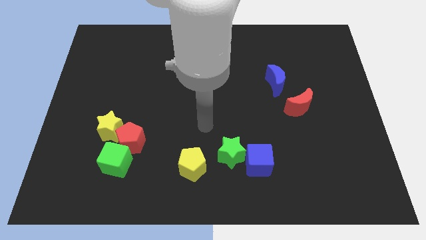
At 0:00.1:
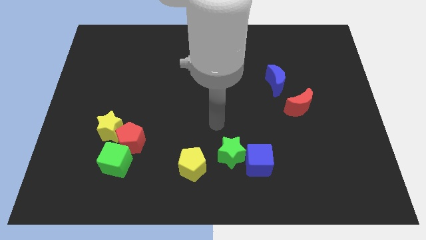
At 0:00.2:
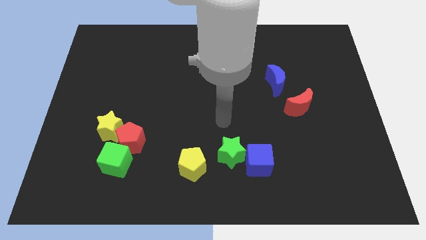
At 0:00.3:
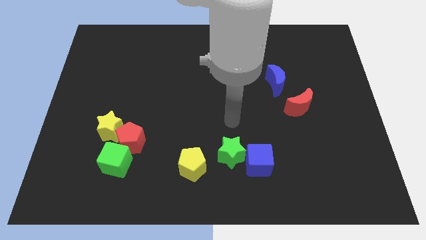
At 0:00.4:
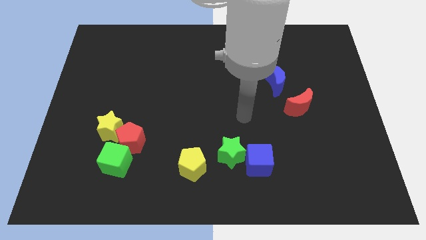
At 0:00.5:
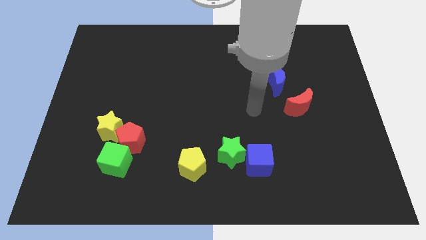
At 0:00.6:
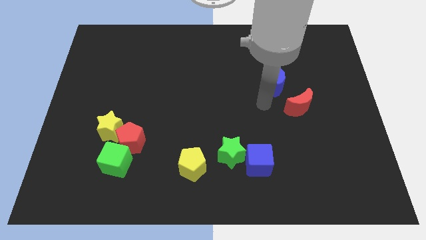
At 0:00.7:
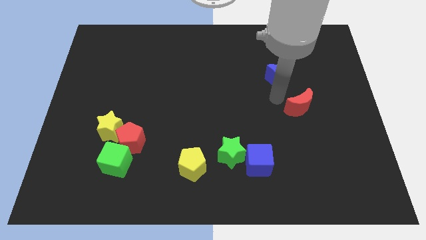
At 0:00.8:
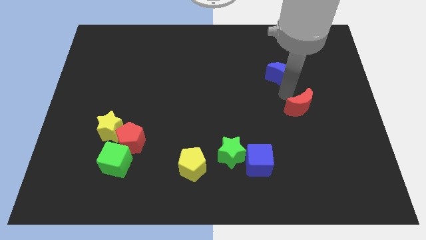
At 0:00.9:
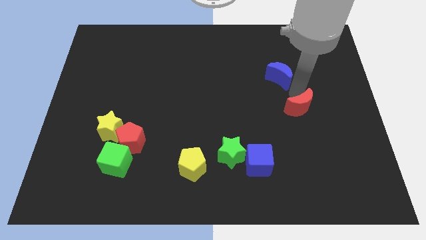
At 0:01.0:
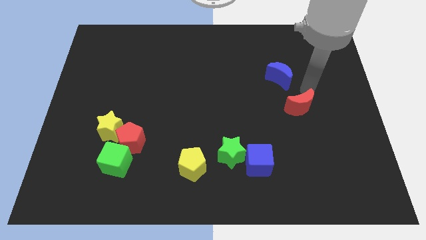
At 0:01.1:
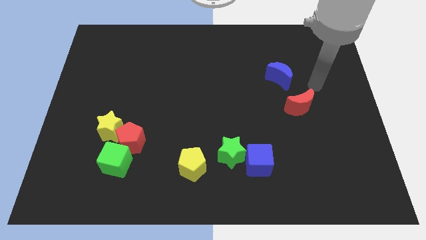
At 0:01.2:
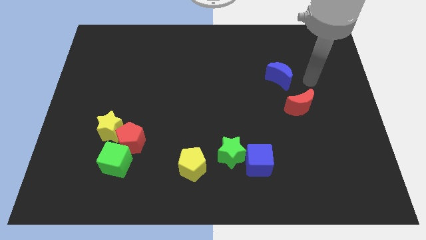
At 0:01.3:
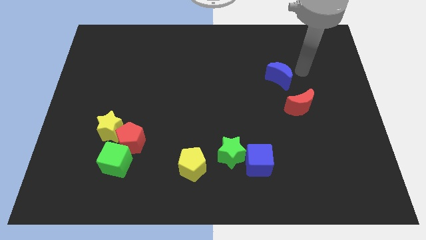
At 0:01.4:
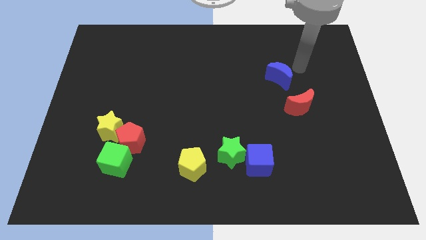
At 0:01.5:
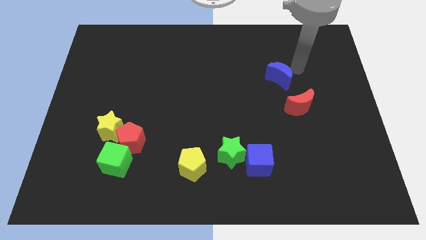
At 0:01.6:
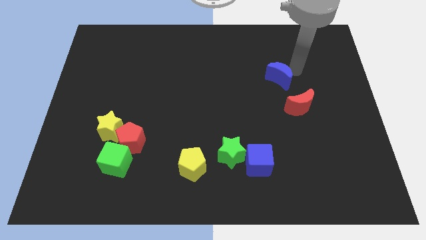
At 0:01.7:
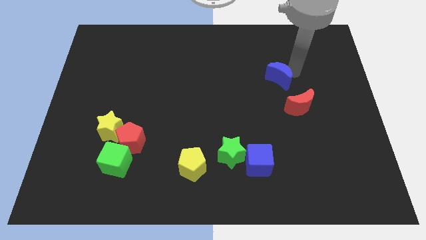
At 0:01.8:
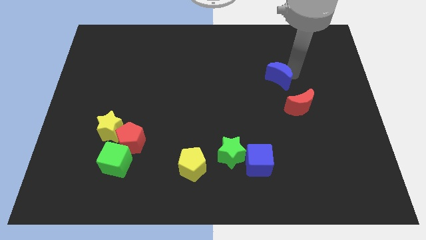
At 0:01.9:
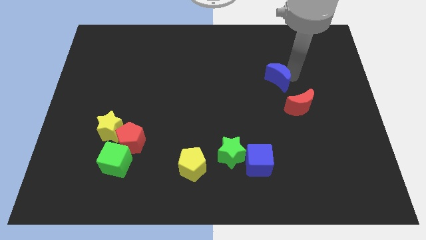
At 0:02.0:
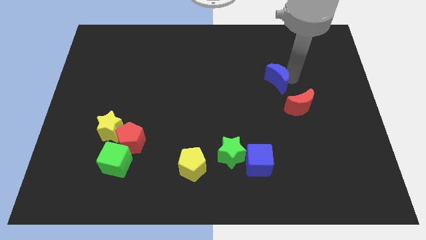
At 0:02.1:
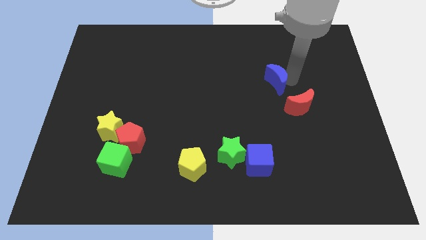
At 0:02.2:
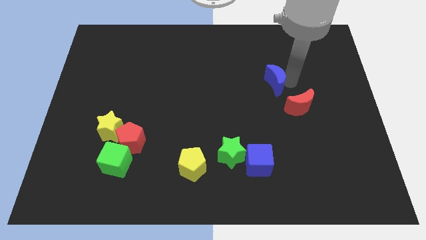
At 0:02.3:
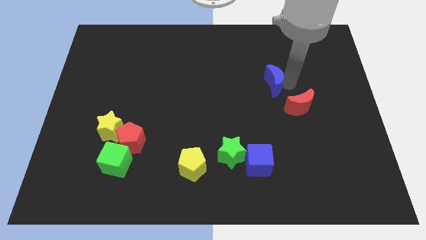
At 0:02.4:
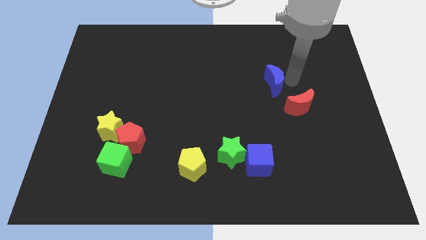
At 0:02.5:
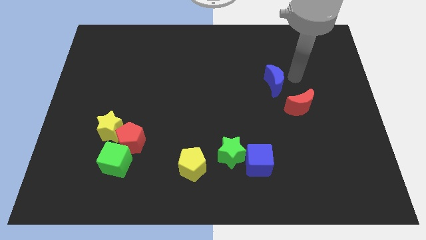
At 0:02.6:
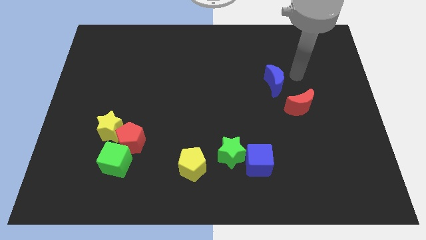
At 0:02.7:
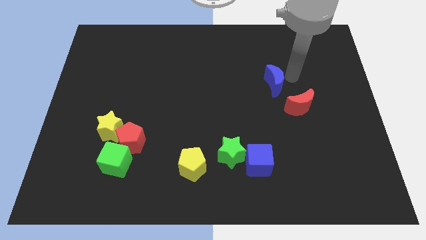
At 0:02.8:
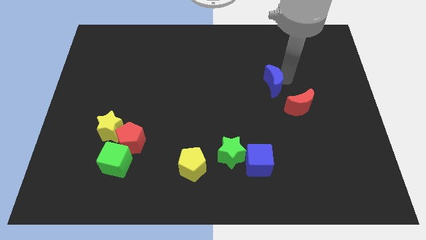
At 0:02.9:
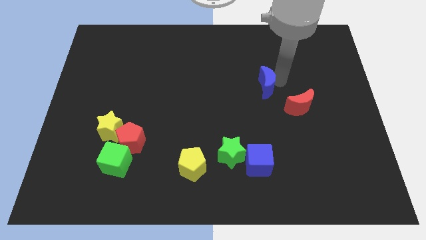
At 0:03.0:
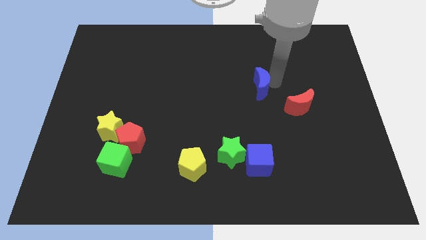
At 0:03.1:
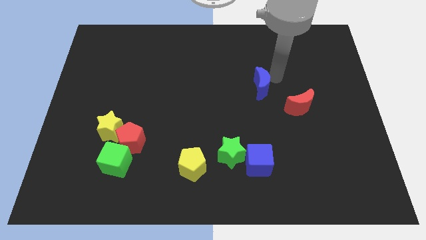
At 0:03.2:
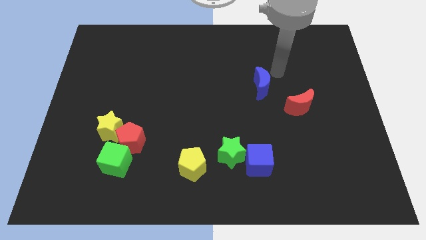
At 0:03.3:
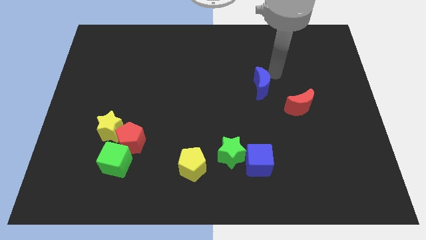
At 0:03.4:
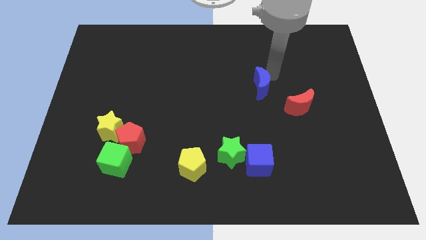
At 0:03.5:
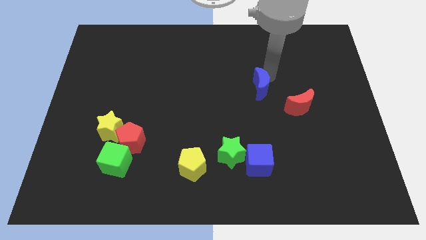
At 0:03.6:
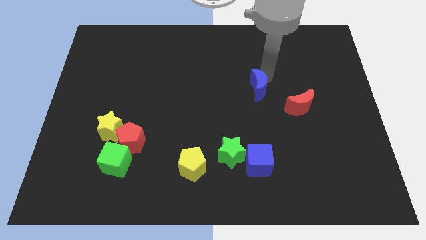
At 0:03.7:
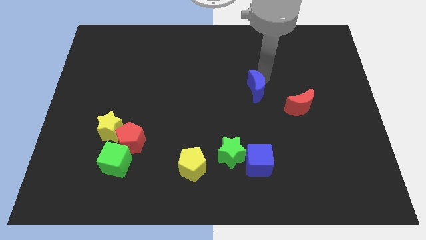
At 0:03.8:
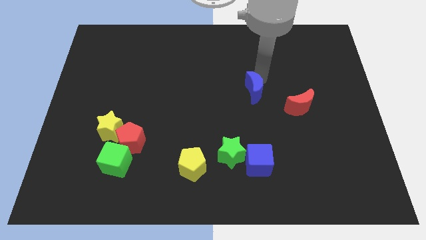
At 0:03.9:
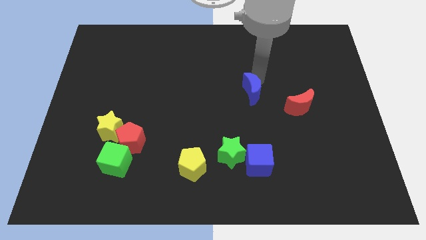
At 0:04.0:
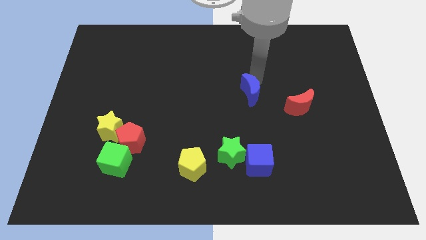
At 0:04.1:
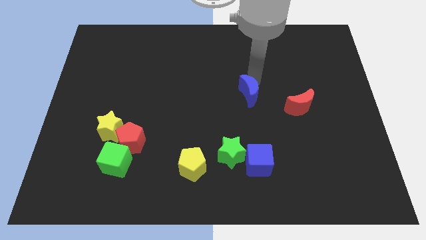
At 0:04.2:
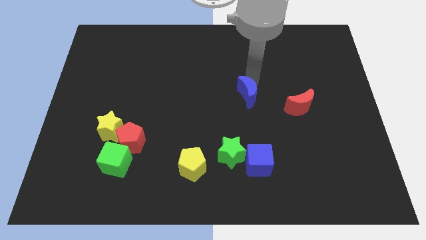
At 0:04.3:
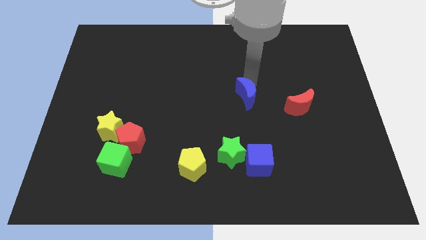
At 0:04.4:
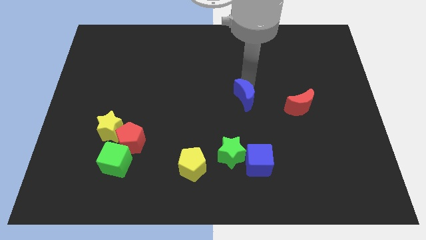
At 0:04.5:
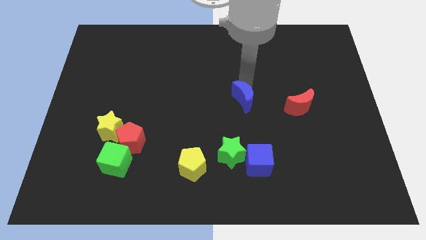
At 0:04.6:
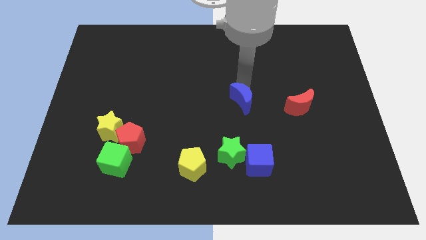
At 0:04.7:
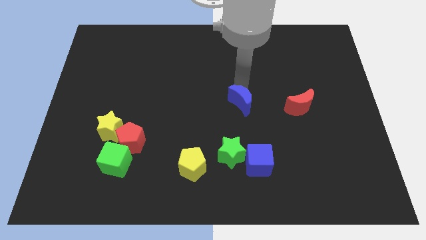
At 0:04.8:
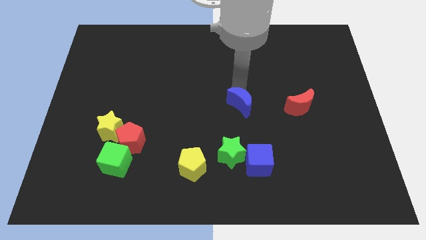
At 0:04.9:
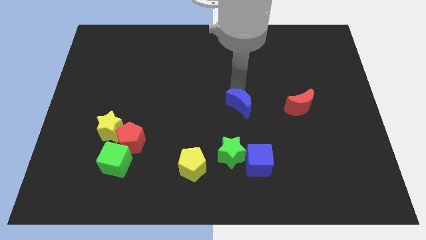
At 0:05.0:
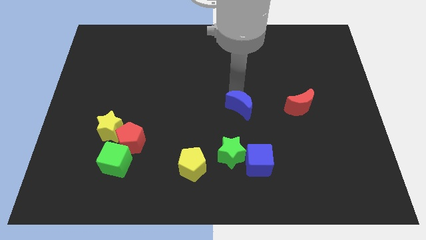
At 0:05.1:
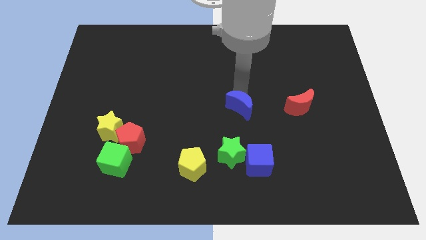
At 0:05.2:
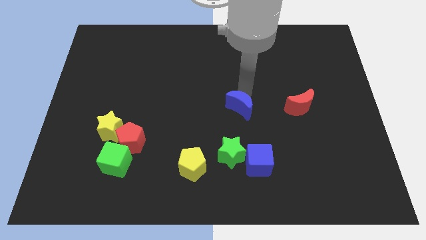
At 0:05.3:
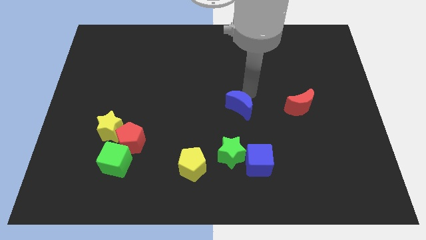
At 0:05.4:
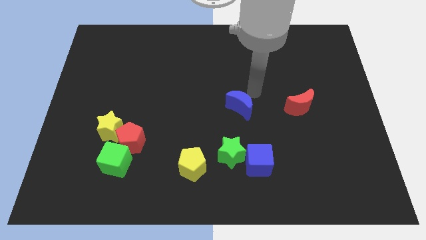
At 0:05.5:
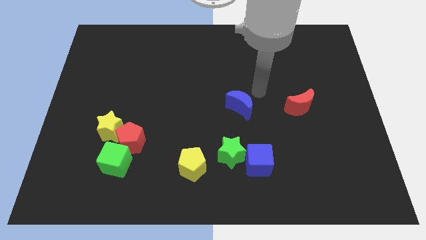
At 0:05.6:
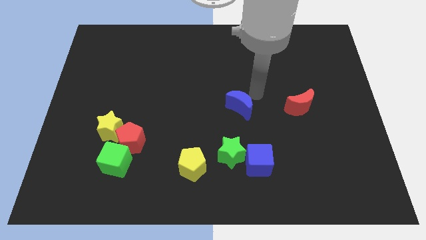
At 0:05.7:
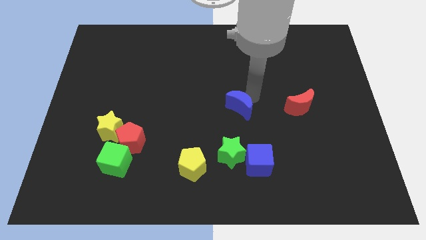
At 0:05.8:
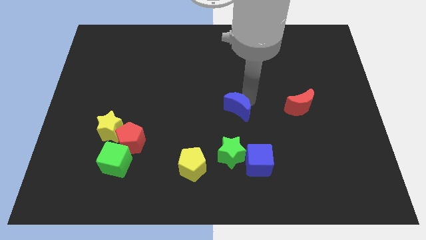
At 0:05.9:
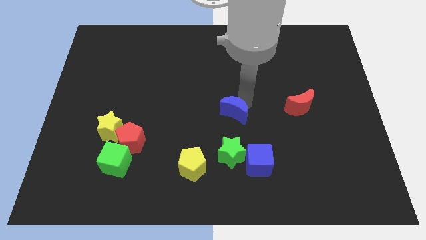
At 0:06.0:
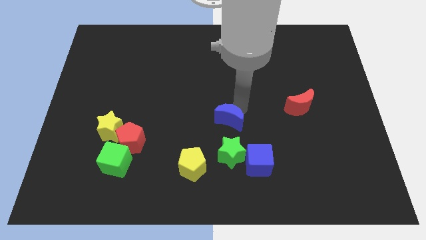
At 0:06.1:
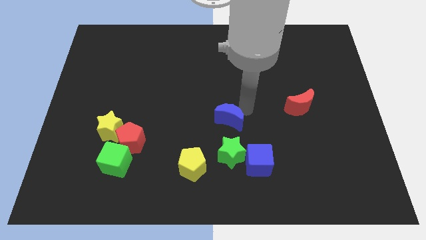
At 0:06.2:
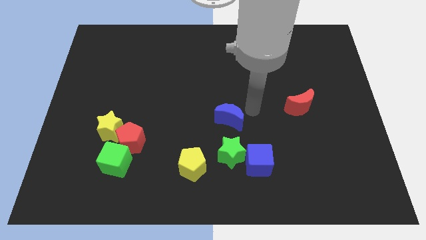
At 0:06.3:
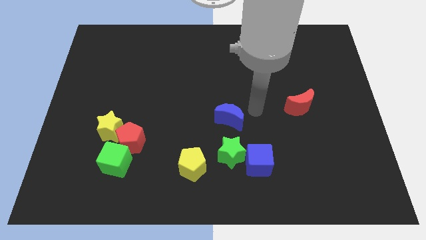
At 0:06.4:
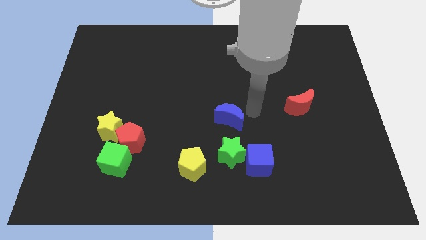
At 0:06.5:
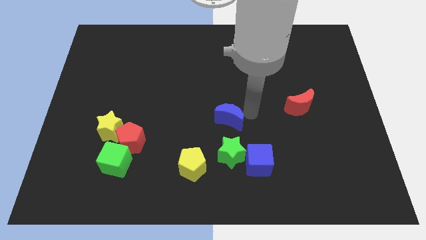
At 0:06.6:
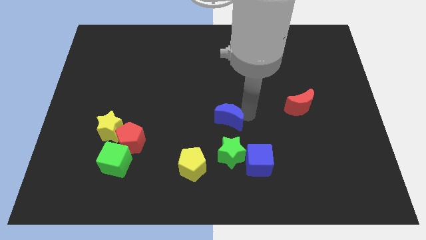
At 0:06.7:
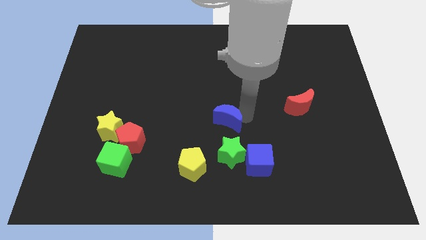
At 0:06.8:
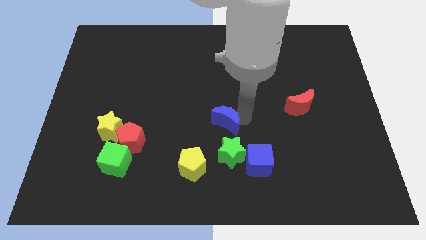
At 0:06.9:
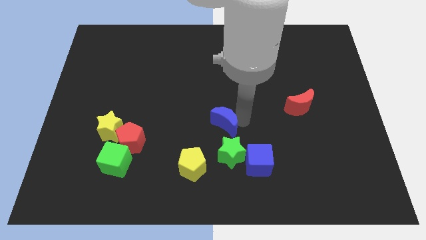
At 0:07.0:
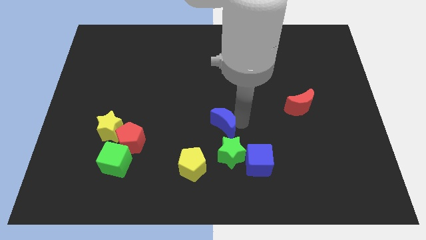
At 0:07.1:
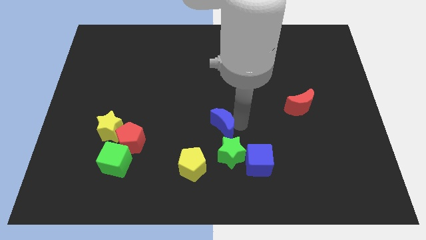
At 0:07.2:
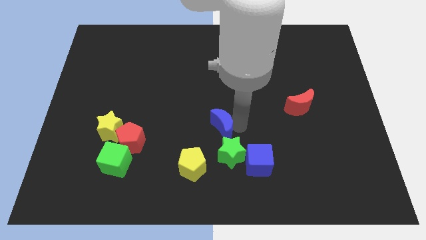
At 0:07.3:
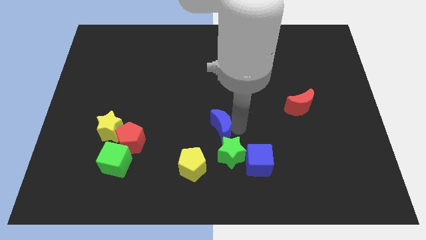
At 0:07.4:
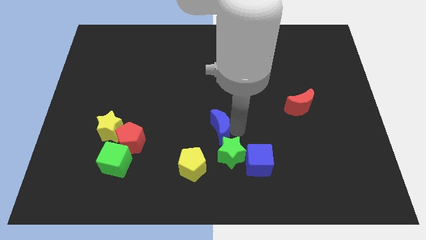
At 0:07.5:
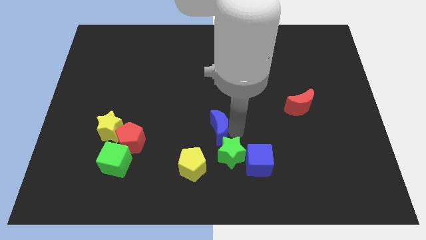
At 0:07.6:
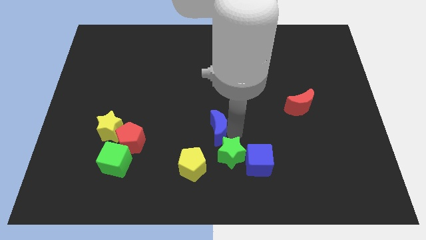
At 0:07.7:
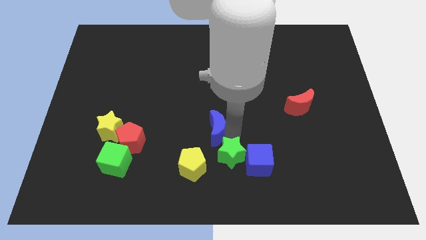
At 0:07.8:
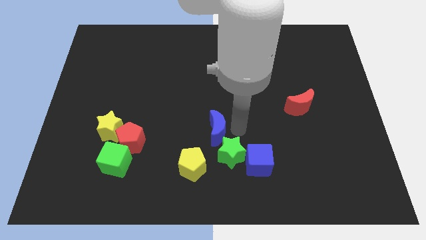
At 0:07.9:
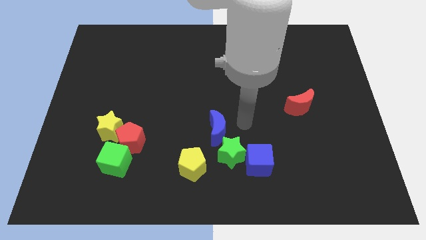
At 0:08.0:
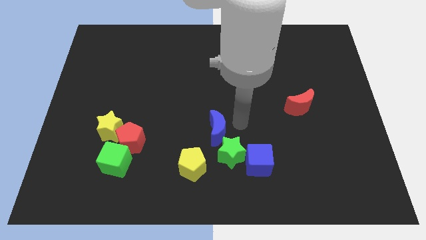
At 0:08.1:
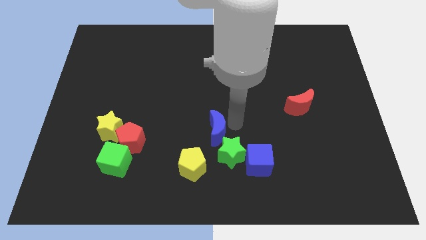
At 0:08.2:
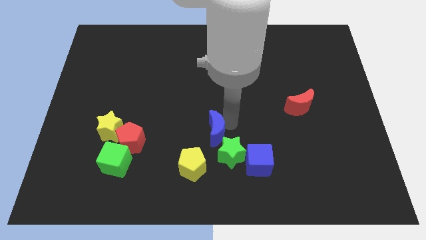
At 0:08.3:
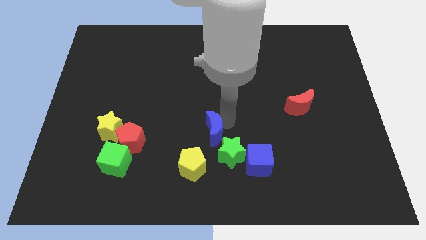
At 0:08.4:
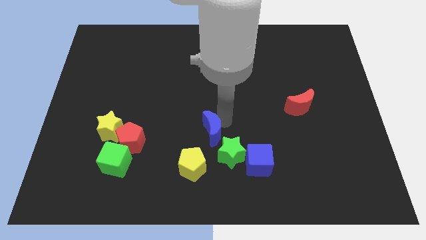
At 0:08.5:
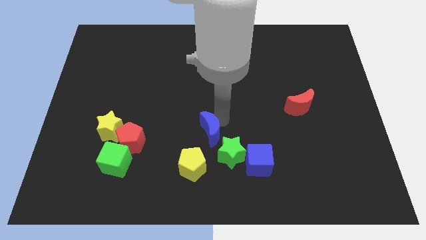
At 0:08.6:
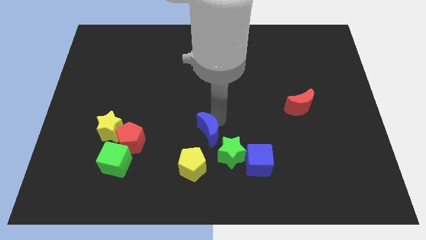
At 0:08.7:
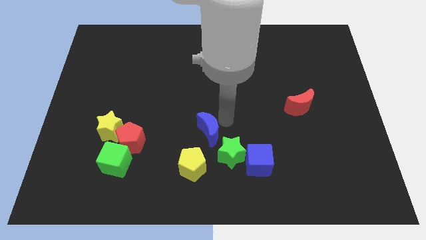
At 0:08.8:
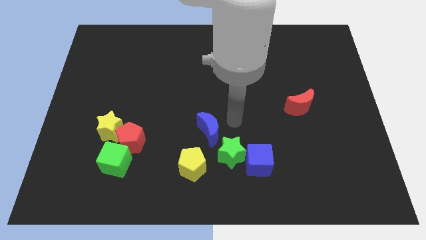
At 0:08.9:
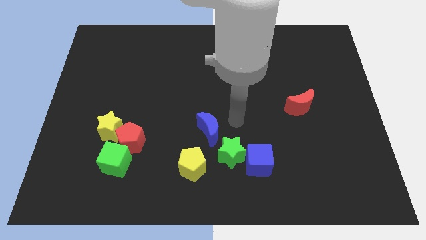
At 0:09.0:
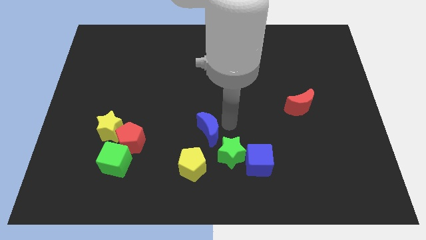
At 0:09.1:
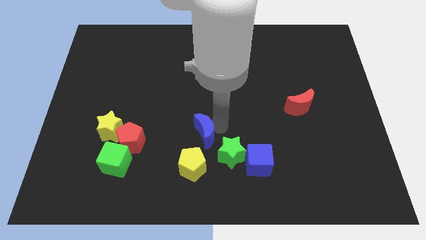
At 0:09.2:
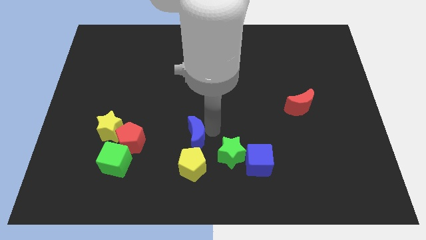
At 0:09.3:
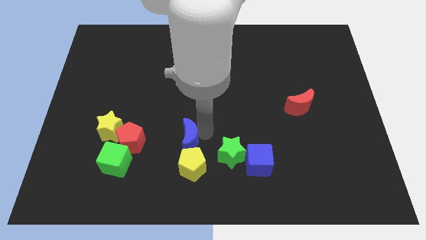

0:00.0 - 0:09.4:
move the blue moon to the top left side of the yellow pentagon
